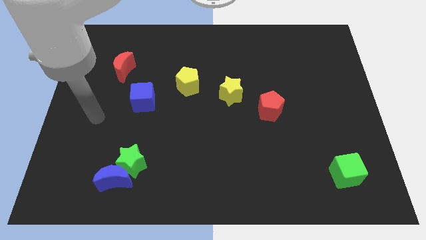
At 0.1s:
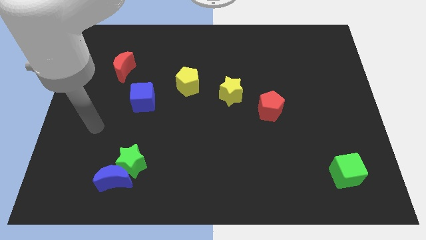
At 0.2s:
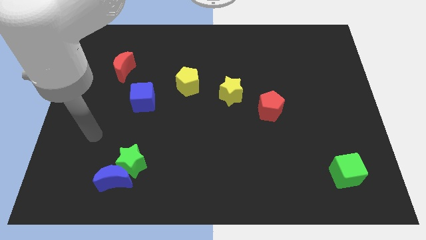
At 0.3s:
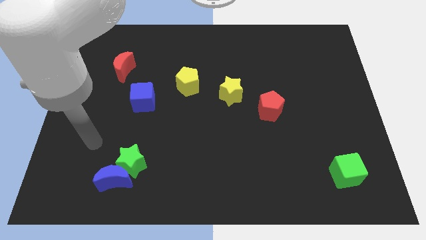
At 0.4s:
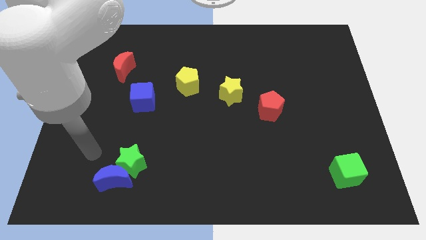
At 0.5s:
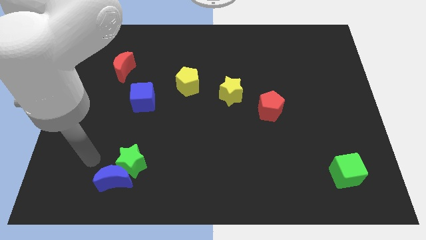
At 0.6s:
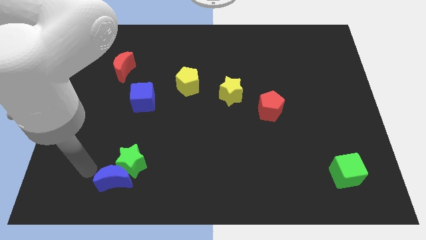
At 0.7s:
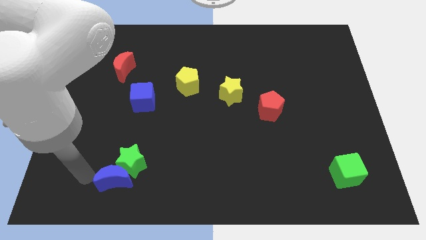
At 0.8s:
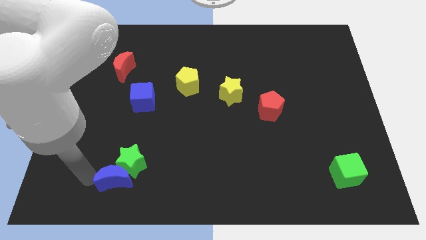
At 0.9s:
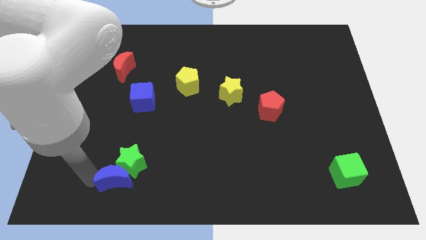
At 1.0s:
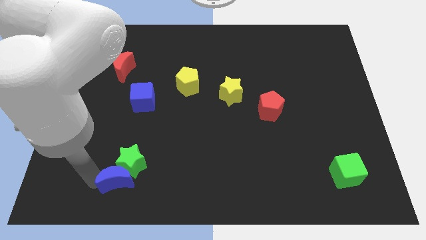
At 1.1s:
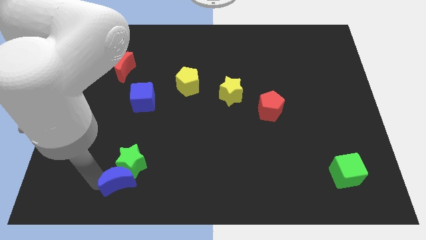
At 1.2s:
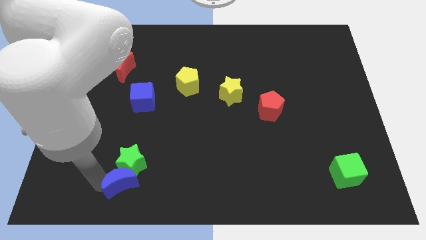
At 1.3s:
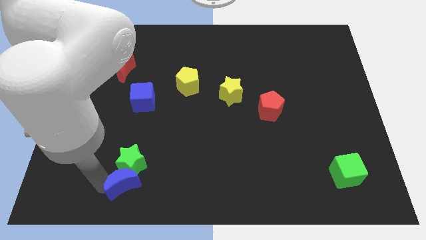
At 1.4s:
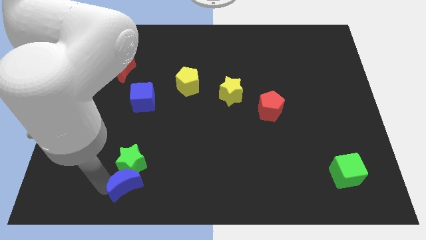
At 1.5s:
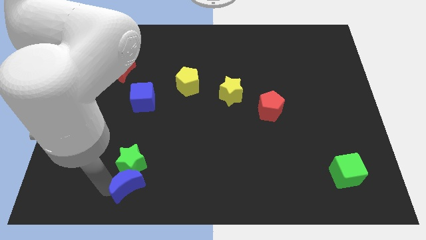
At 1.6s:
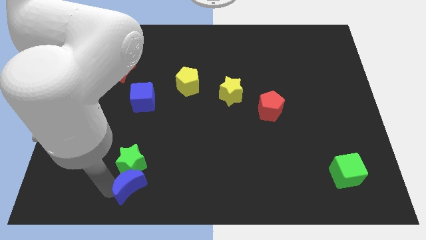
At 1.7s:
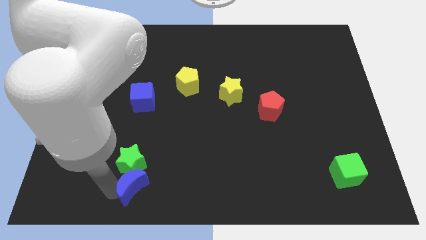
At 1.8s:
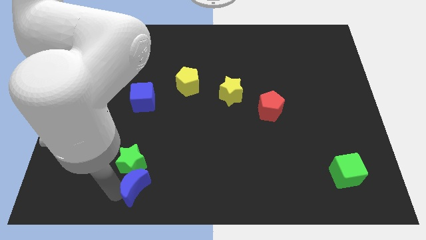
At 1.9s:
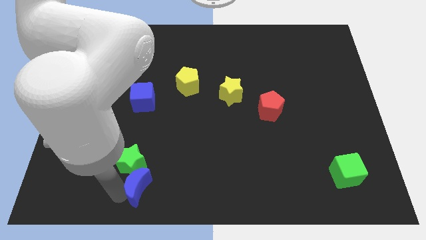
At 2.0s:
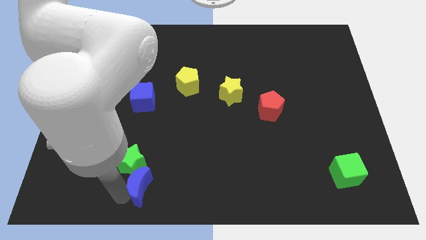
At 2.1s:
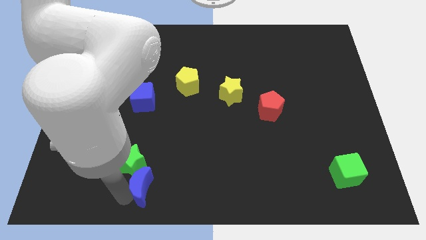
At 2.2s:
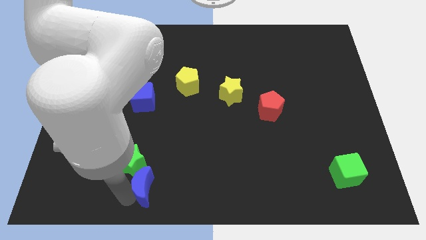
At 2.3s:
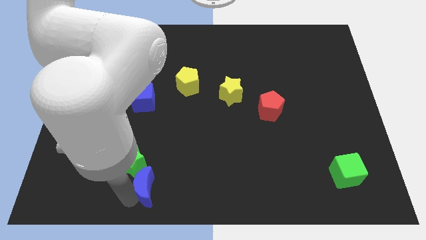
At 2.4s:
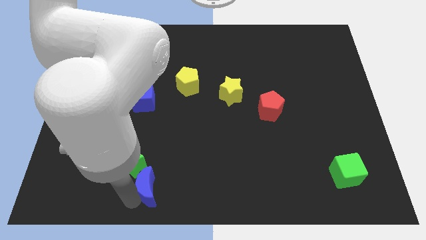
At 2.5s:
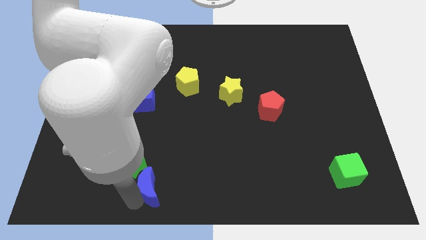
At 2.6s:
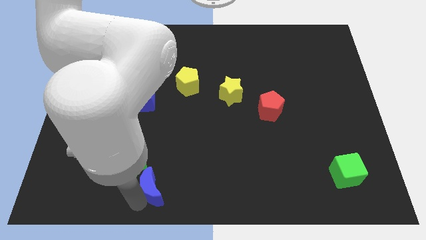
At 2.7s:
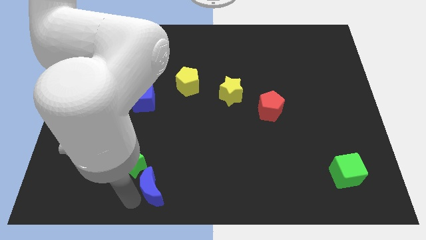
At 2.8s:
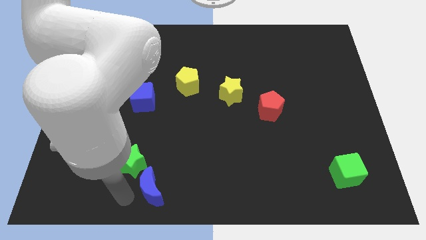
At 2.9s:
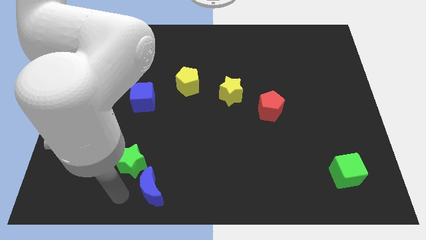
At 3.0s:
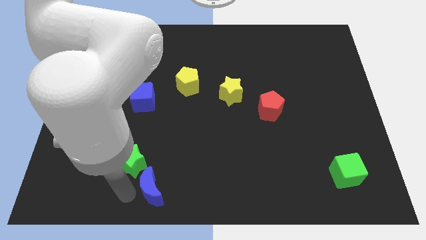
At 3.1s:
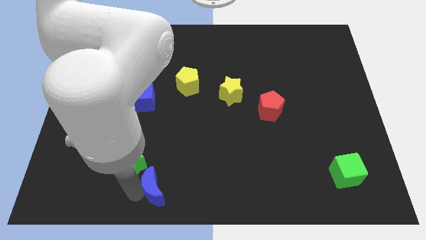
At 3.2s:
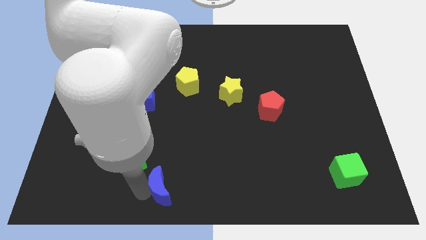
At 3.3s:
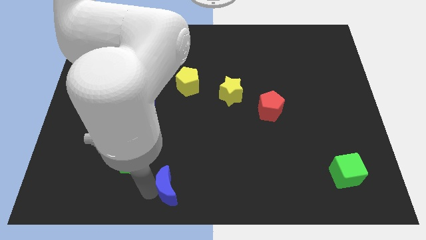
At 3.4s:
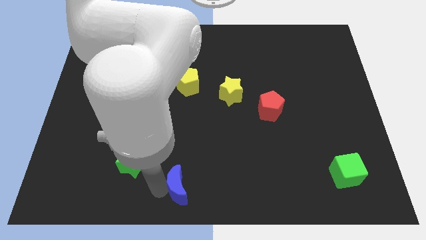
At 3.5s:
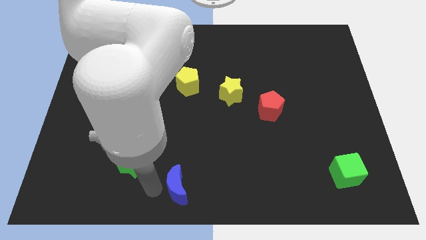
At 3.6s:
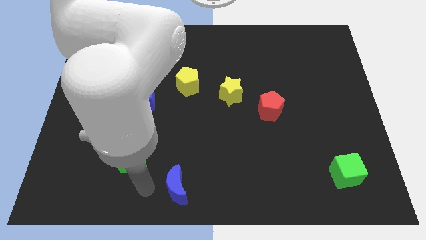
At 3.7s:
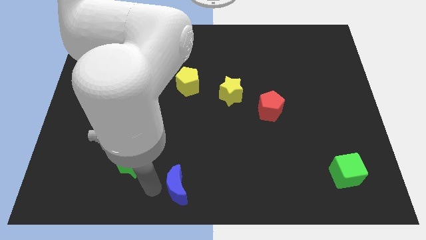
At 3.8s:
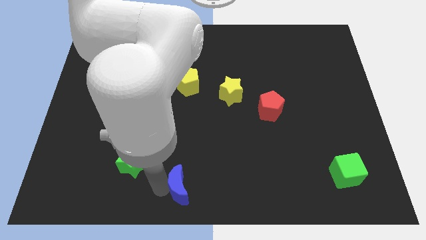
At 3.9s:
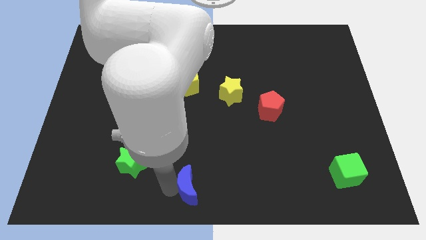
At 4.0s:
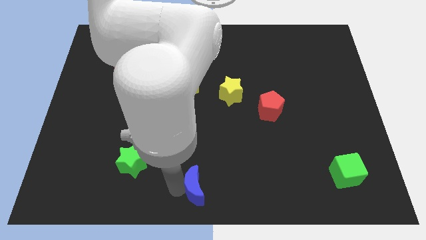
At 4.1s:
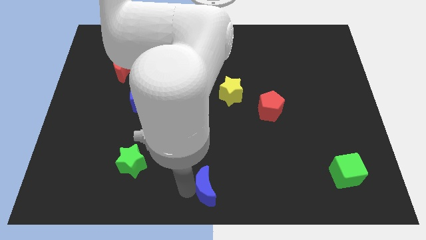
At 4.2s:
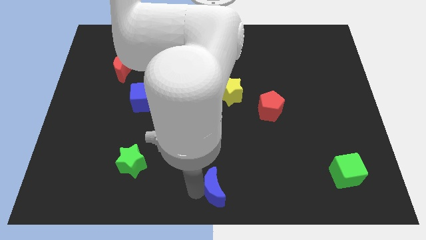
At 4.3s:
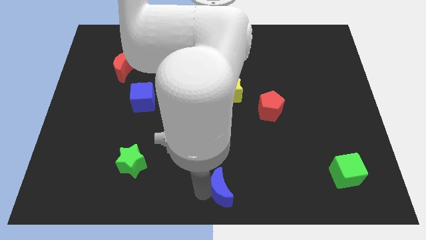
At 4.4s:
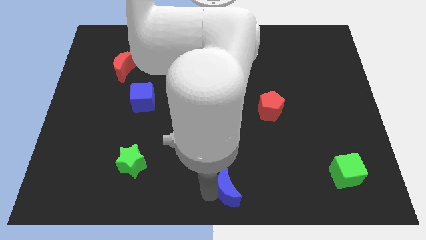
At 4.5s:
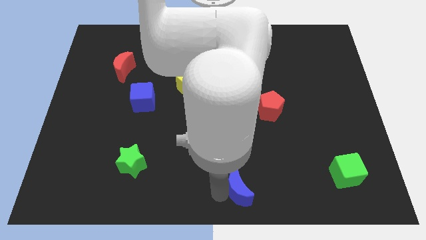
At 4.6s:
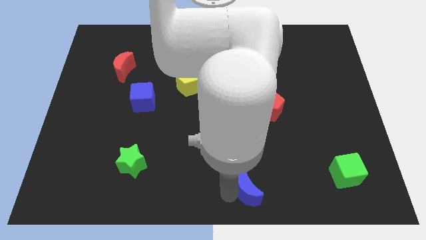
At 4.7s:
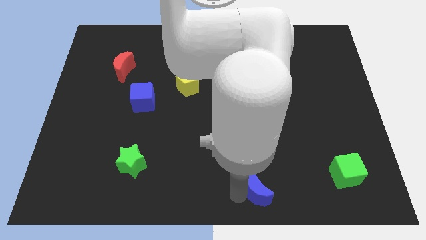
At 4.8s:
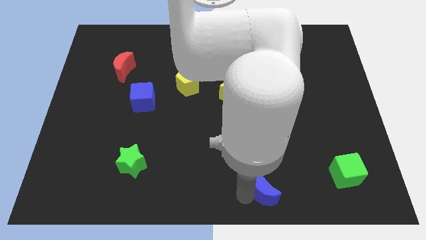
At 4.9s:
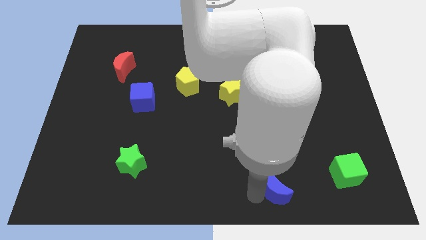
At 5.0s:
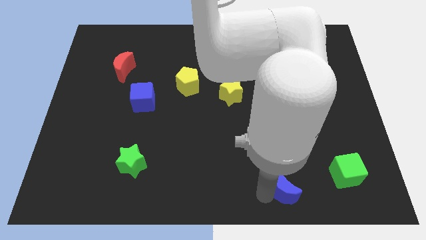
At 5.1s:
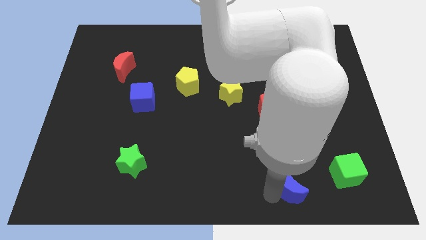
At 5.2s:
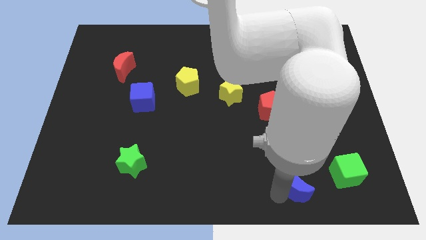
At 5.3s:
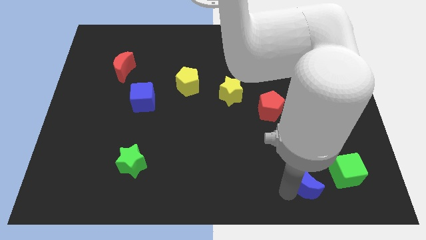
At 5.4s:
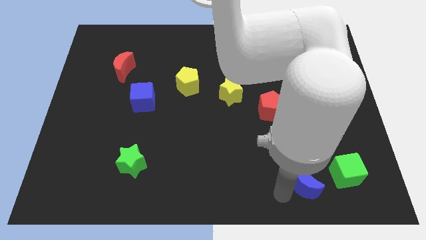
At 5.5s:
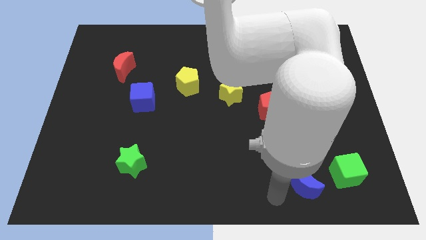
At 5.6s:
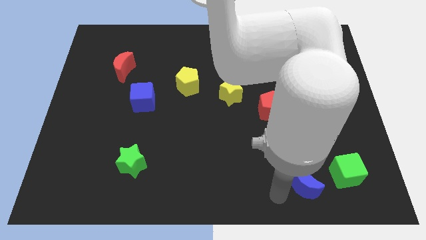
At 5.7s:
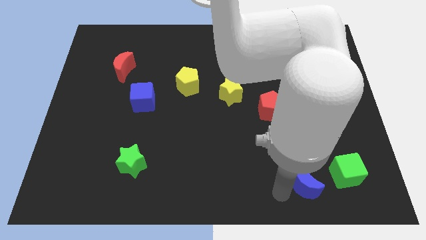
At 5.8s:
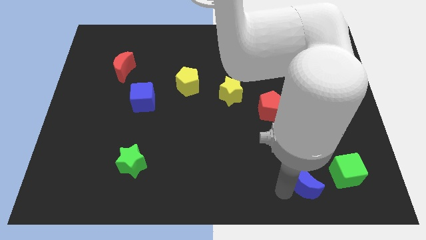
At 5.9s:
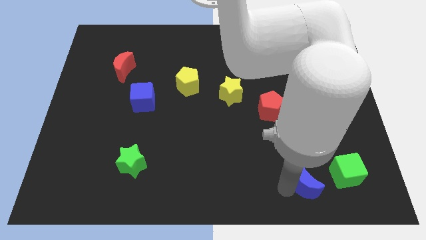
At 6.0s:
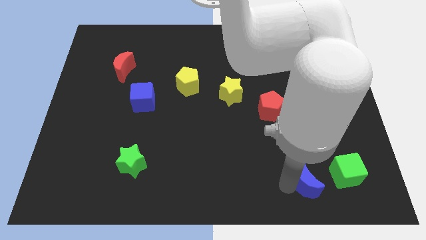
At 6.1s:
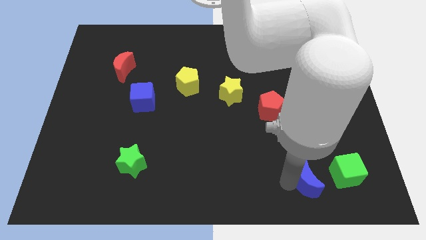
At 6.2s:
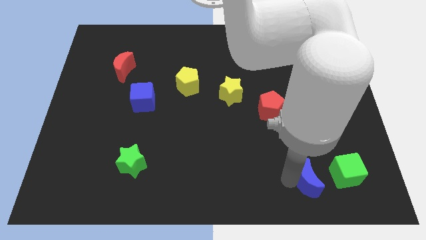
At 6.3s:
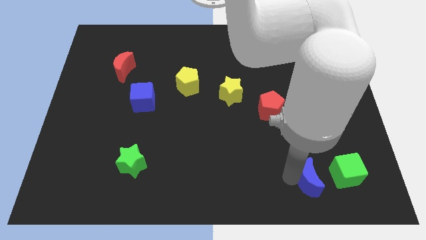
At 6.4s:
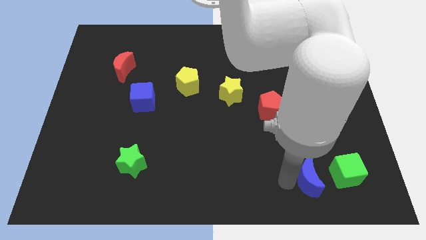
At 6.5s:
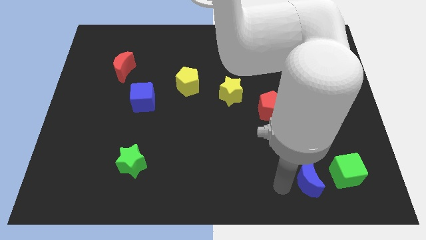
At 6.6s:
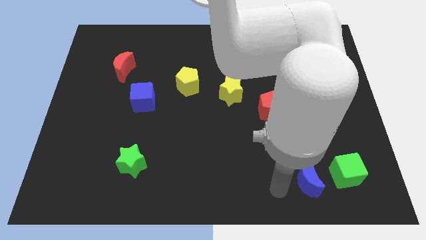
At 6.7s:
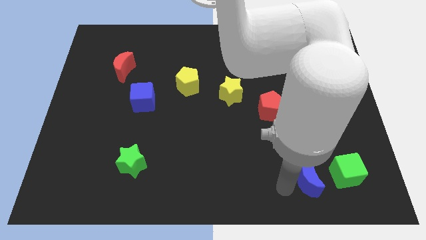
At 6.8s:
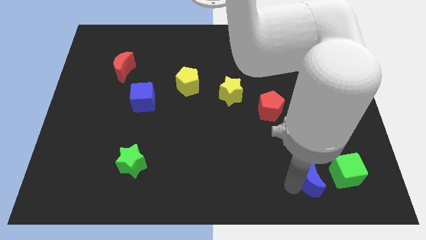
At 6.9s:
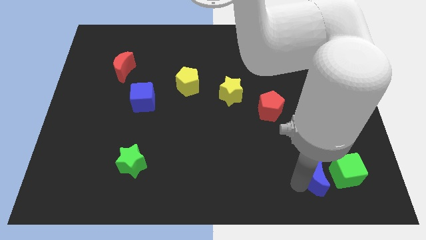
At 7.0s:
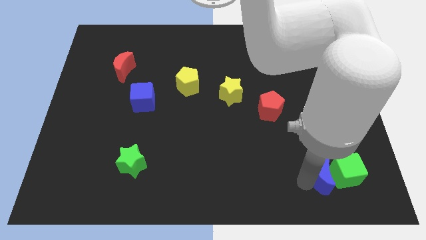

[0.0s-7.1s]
push the blue moon to the green cube

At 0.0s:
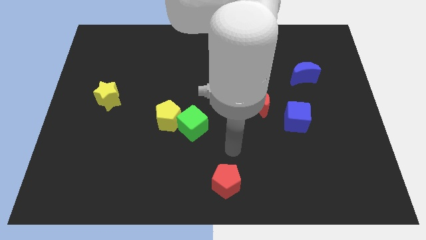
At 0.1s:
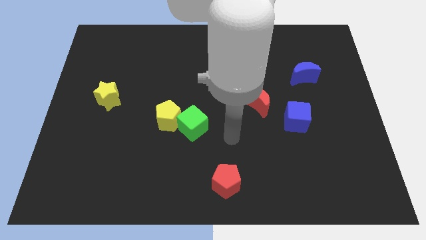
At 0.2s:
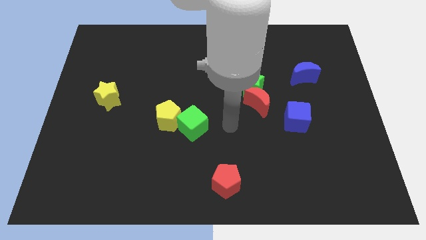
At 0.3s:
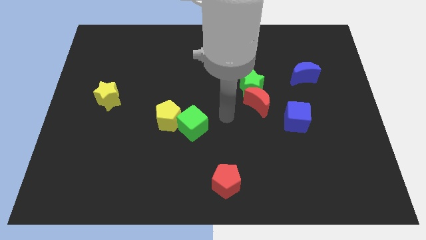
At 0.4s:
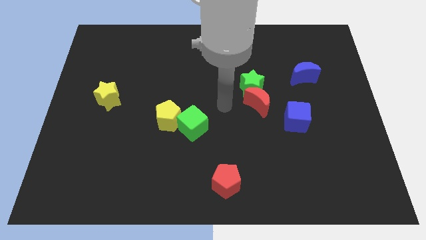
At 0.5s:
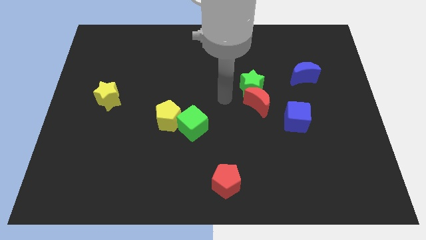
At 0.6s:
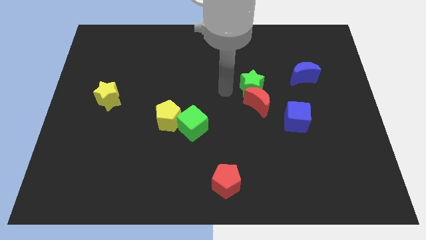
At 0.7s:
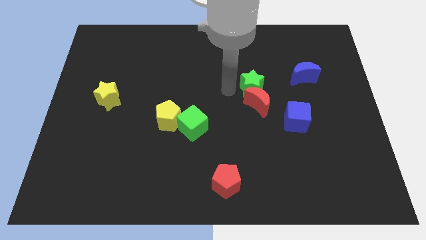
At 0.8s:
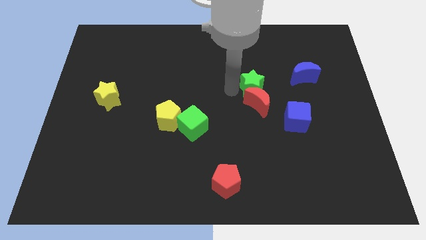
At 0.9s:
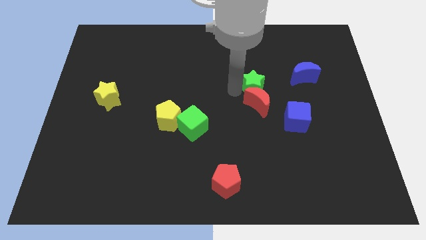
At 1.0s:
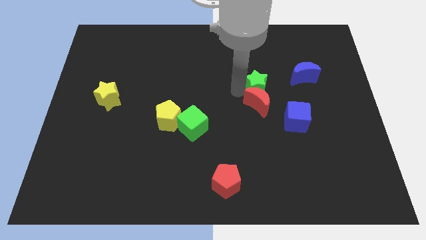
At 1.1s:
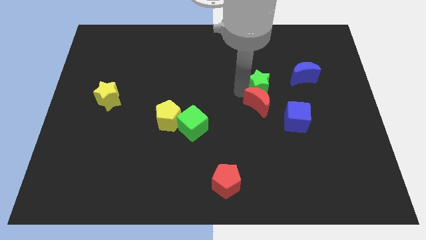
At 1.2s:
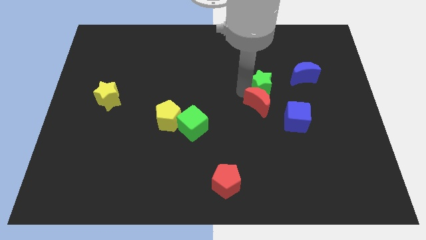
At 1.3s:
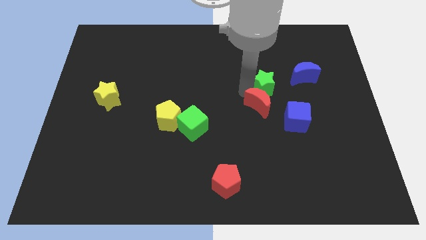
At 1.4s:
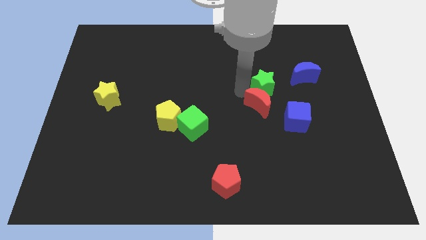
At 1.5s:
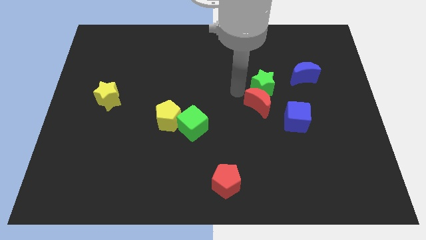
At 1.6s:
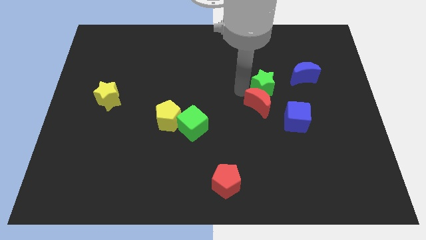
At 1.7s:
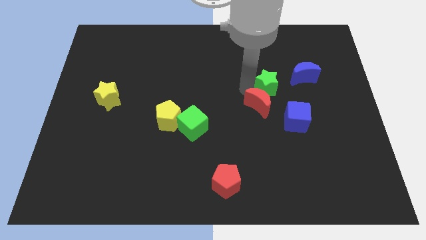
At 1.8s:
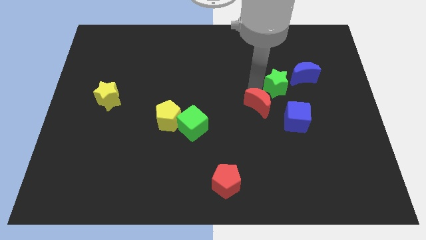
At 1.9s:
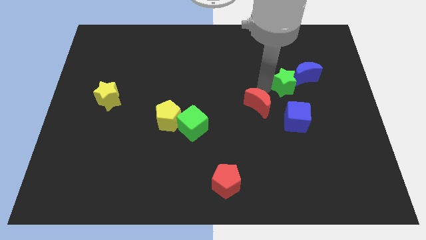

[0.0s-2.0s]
slide the green star to the blue moon
